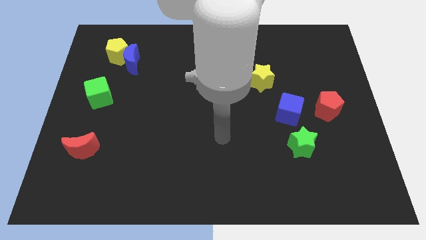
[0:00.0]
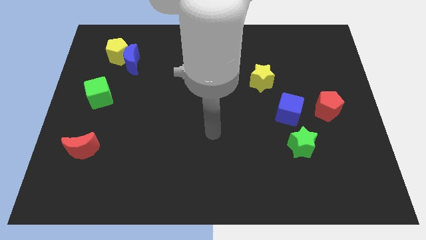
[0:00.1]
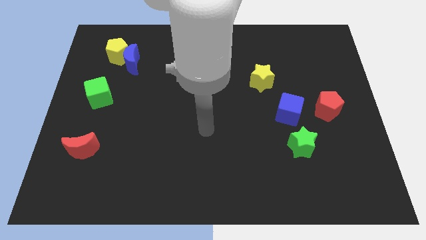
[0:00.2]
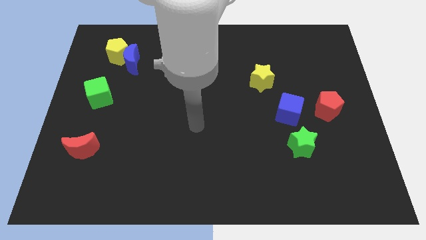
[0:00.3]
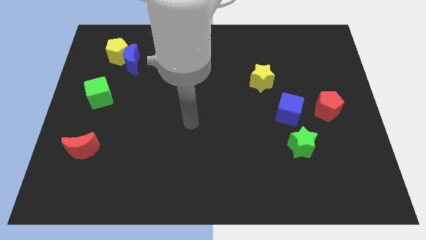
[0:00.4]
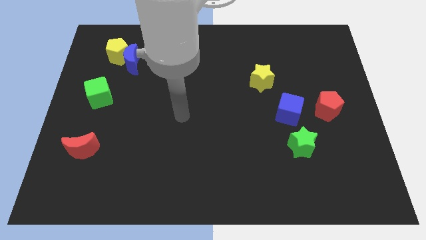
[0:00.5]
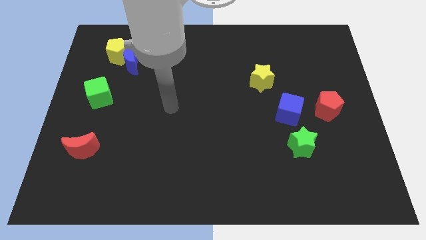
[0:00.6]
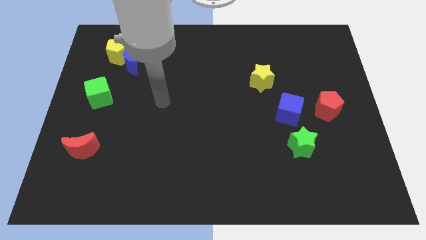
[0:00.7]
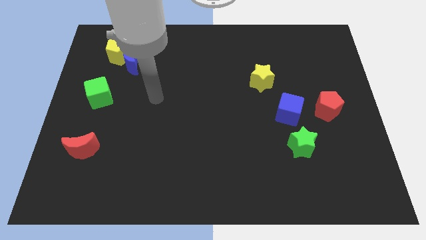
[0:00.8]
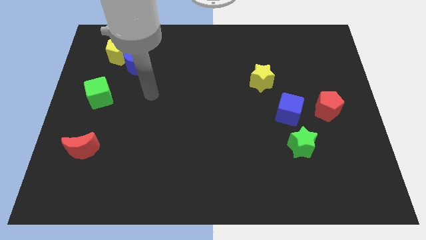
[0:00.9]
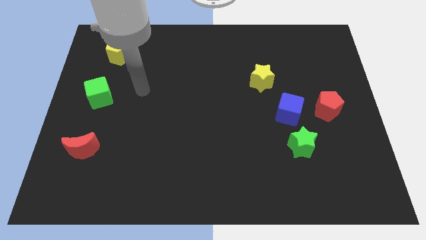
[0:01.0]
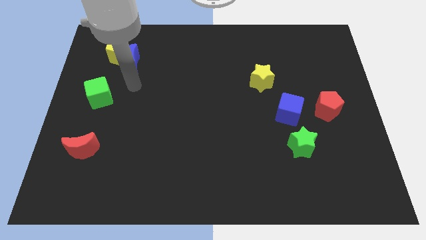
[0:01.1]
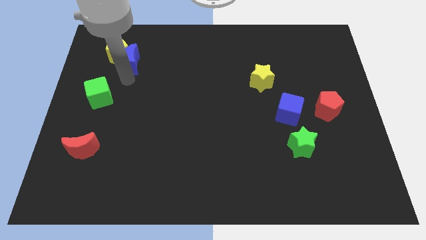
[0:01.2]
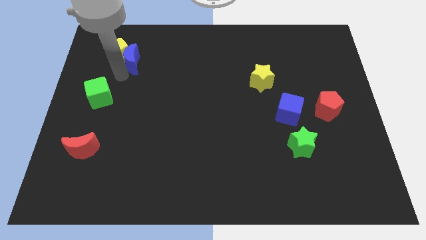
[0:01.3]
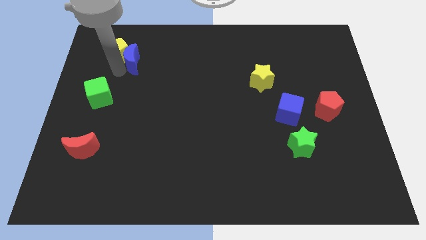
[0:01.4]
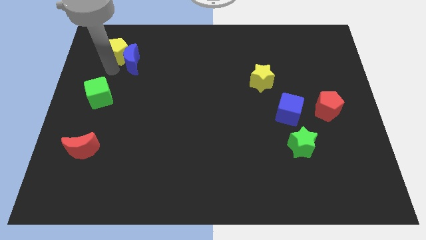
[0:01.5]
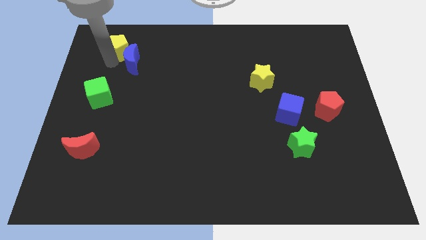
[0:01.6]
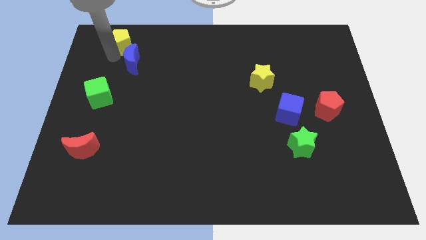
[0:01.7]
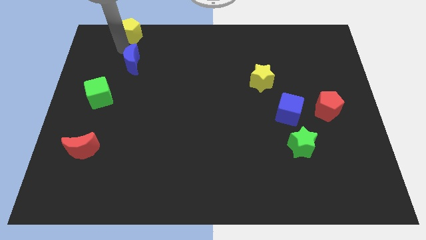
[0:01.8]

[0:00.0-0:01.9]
pull the blue moon apart from the yellow pentagon

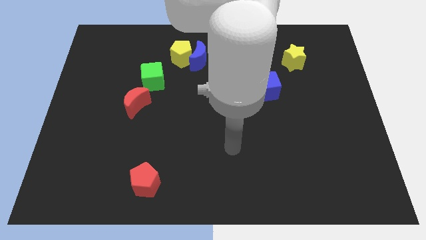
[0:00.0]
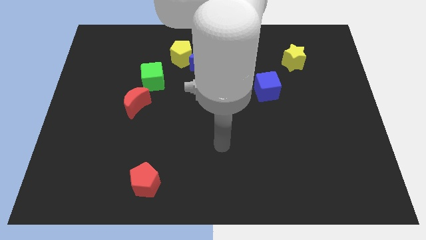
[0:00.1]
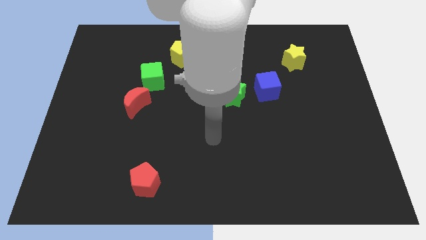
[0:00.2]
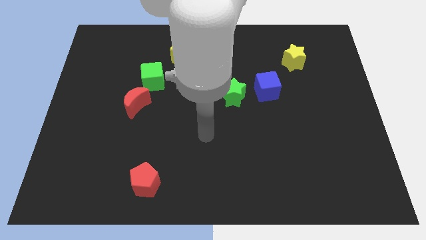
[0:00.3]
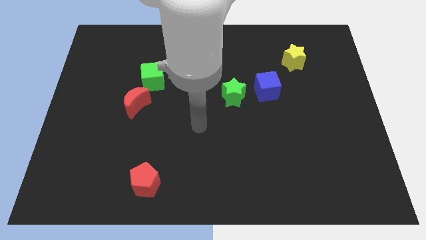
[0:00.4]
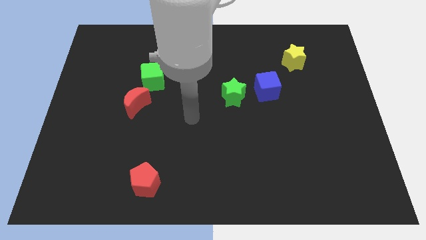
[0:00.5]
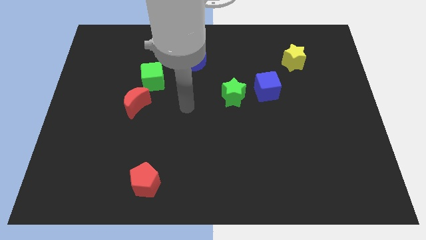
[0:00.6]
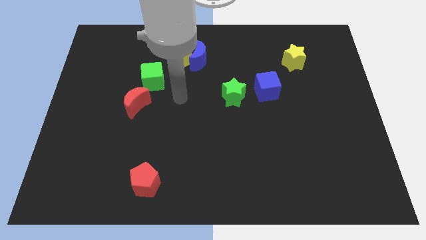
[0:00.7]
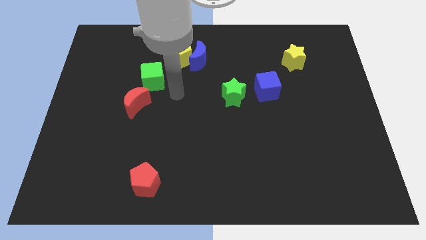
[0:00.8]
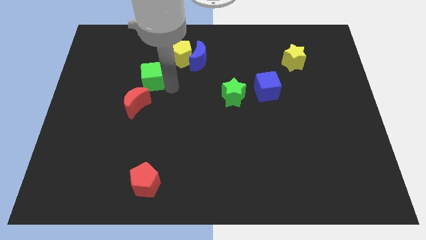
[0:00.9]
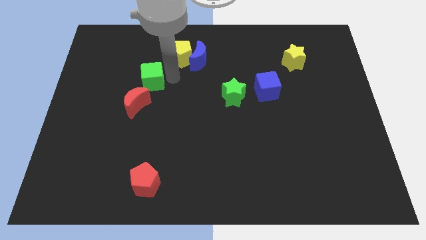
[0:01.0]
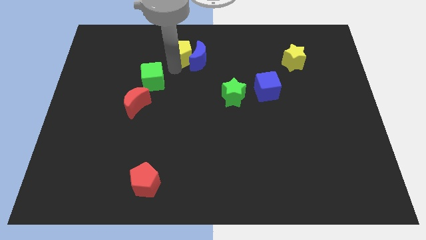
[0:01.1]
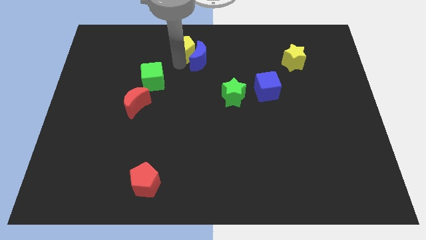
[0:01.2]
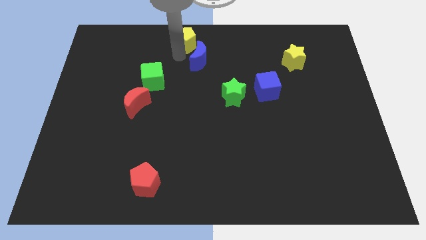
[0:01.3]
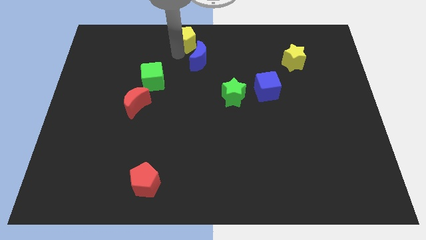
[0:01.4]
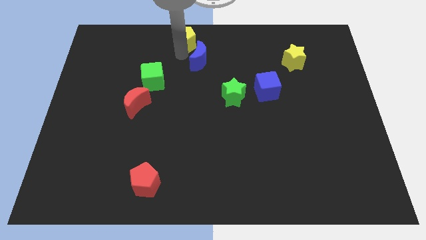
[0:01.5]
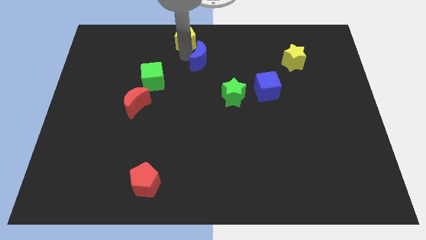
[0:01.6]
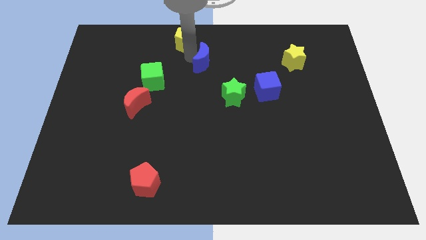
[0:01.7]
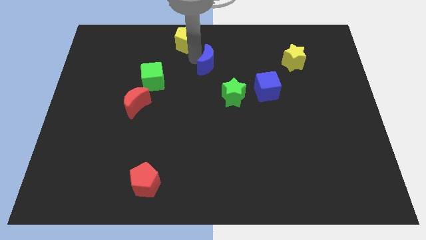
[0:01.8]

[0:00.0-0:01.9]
separate the blue moon from the yellow pentagon

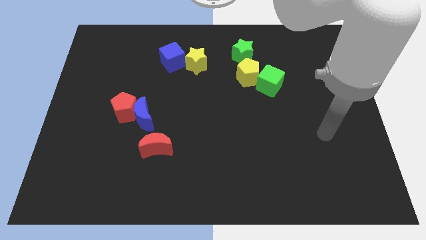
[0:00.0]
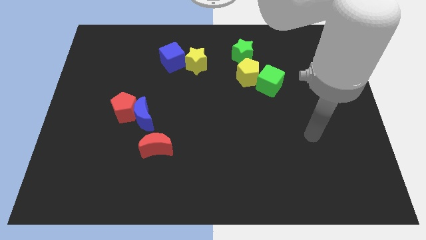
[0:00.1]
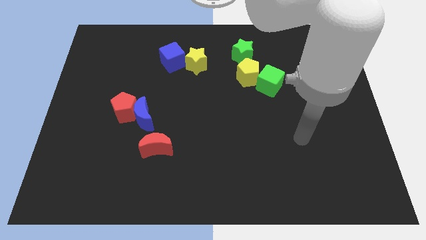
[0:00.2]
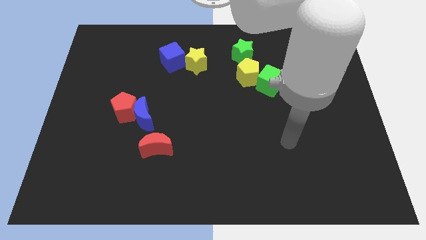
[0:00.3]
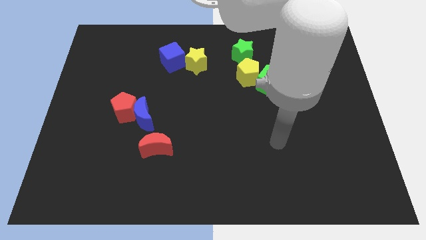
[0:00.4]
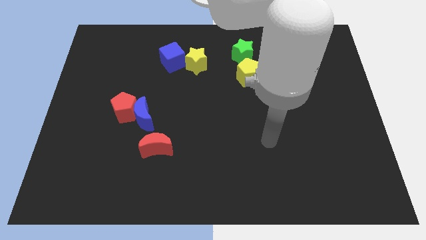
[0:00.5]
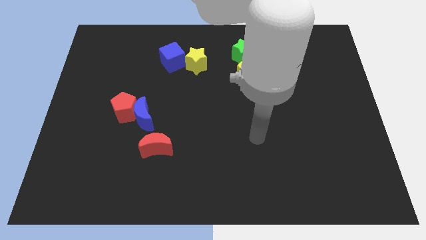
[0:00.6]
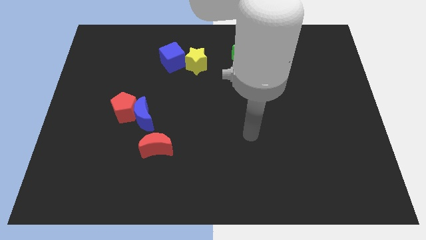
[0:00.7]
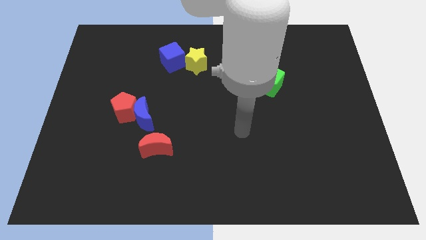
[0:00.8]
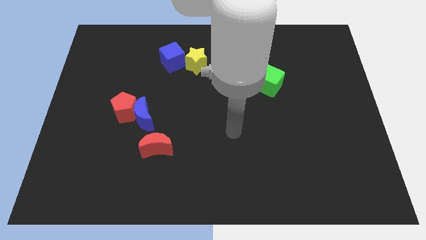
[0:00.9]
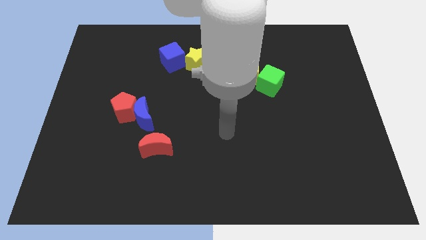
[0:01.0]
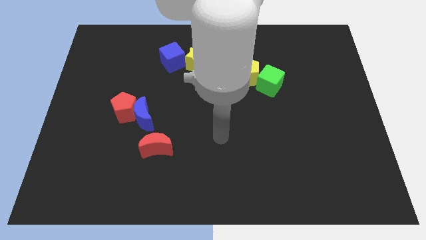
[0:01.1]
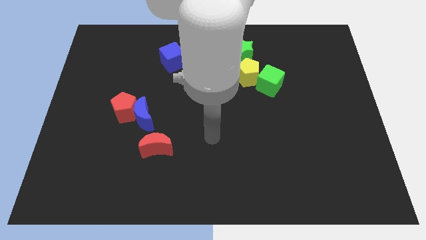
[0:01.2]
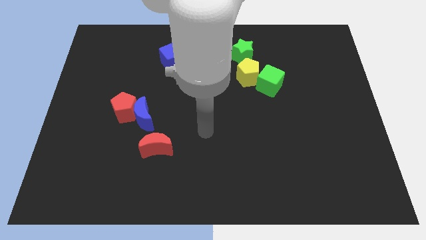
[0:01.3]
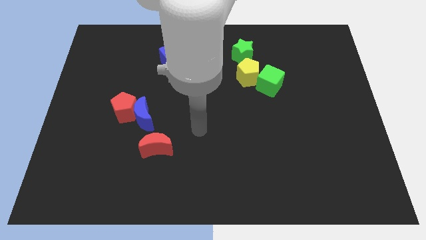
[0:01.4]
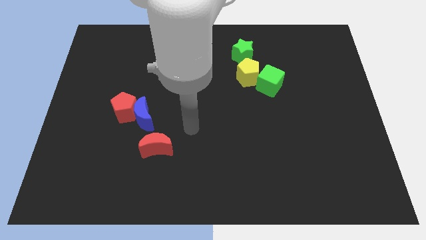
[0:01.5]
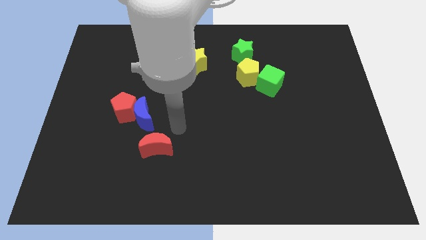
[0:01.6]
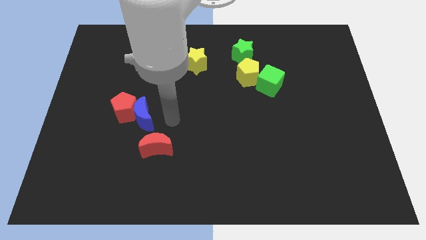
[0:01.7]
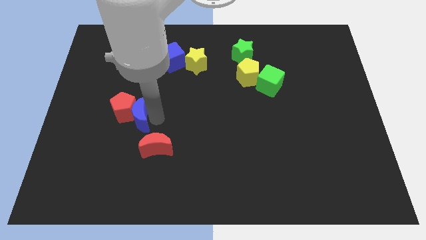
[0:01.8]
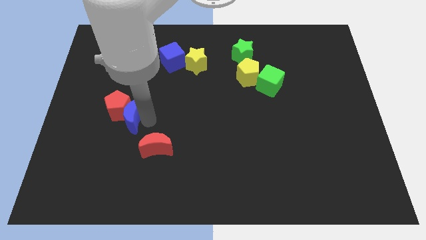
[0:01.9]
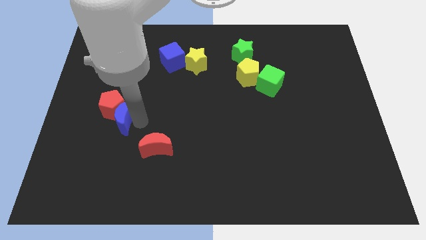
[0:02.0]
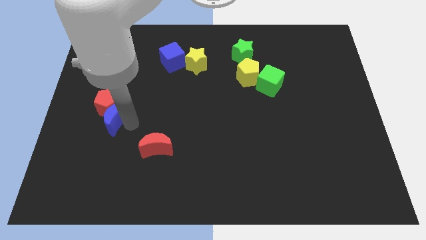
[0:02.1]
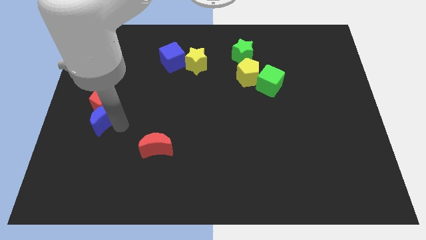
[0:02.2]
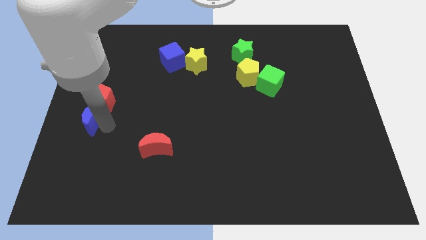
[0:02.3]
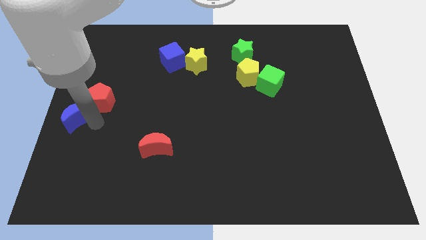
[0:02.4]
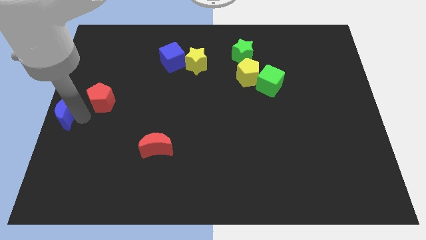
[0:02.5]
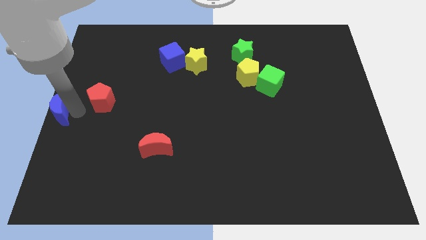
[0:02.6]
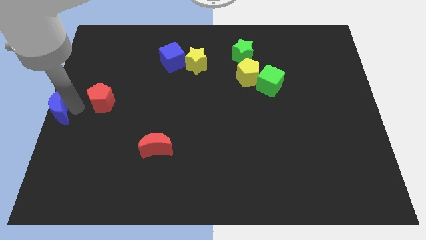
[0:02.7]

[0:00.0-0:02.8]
separate the red pentagon from the blue moon

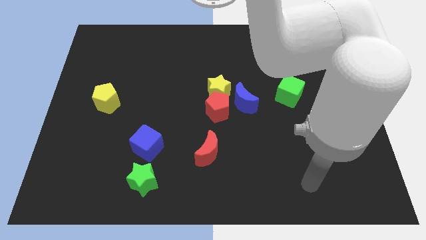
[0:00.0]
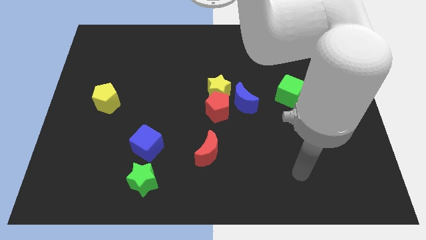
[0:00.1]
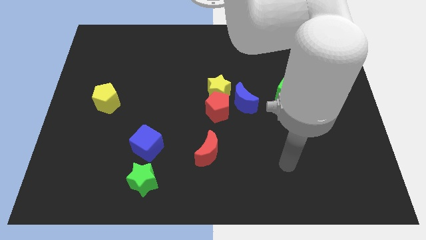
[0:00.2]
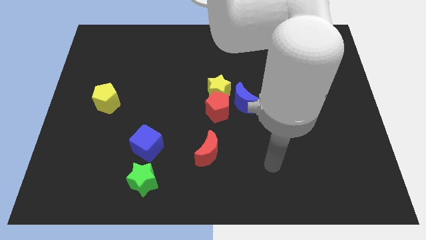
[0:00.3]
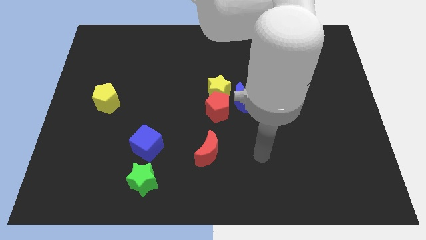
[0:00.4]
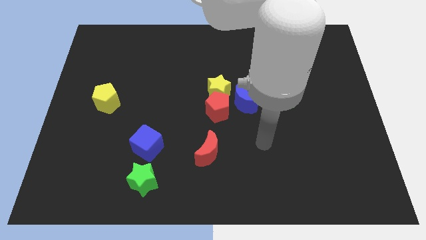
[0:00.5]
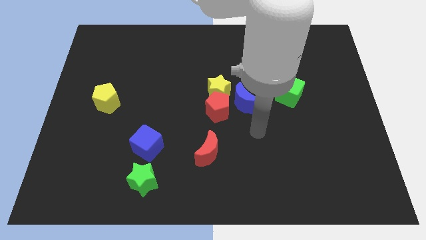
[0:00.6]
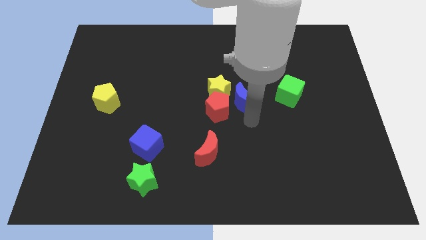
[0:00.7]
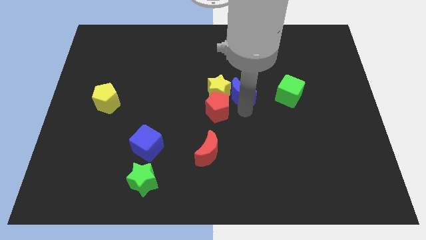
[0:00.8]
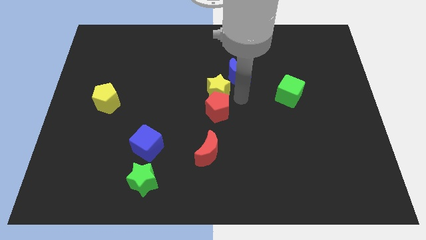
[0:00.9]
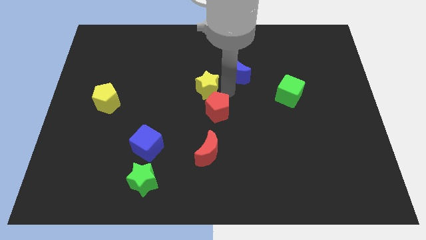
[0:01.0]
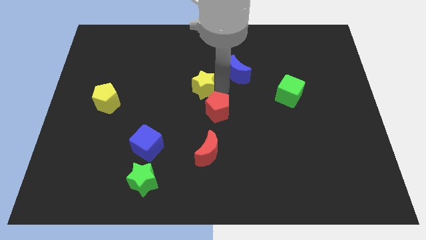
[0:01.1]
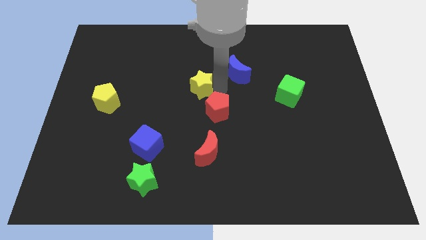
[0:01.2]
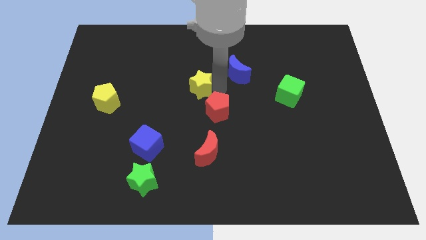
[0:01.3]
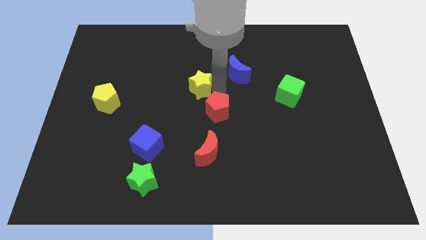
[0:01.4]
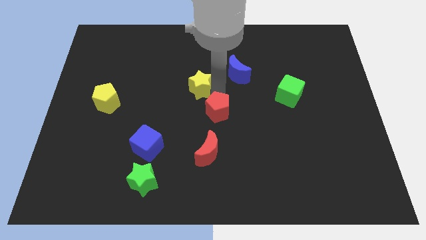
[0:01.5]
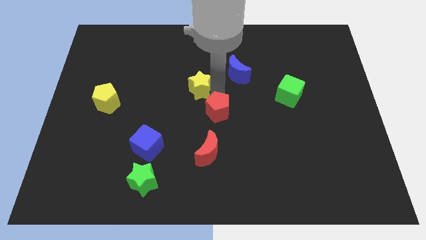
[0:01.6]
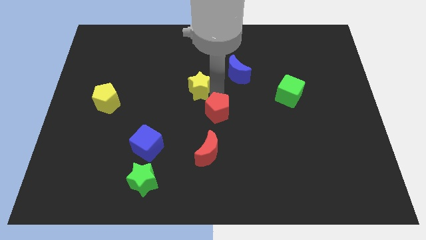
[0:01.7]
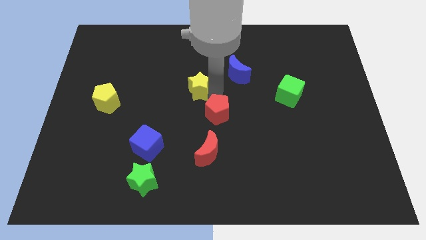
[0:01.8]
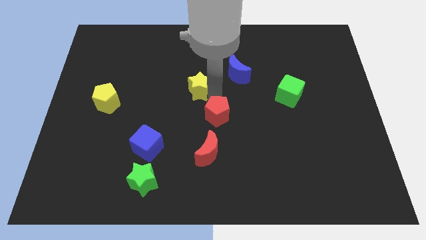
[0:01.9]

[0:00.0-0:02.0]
pull the red pentagon apart from the yellow star and blue moon

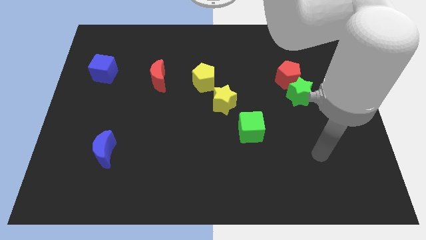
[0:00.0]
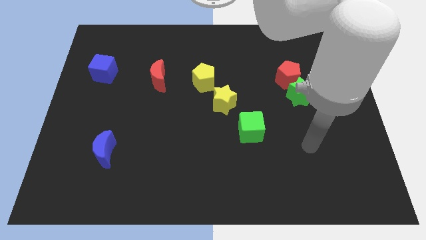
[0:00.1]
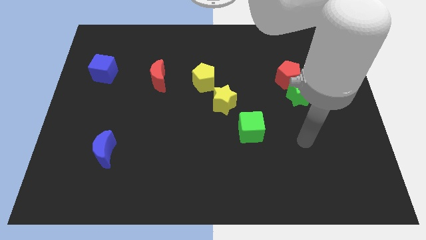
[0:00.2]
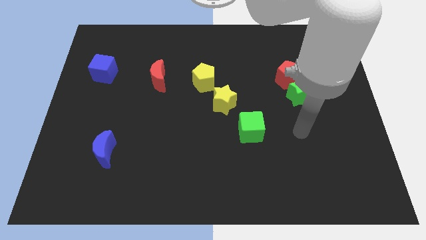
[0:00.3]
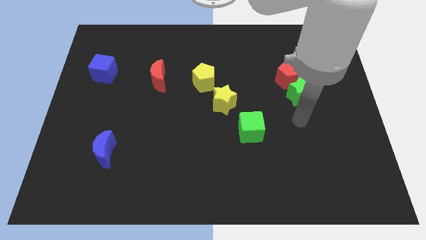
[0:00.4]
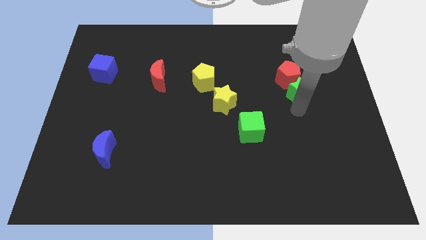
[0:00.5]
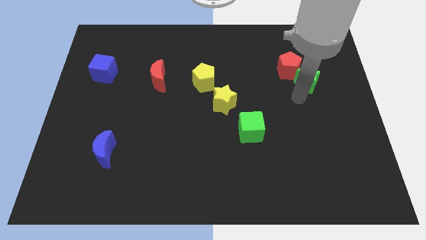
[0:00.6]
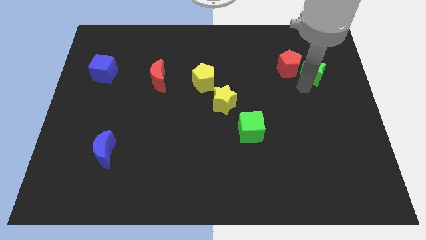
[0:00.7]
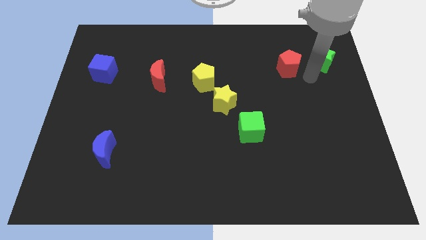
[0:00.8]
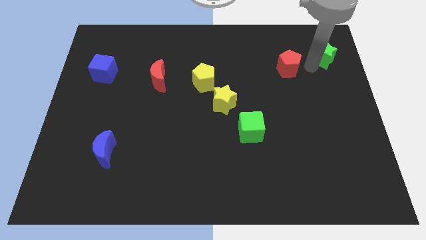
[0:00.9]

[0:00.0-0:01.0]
separate the red pentagon from the green star
